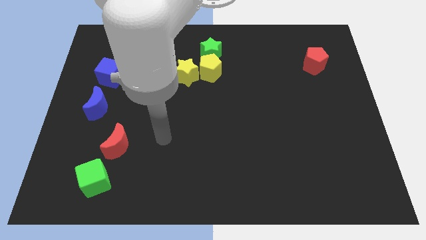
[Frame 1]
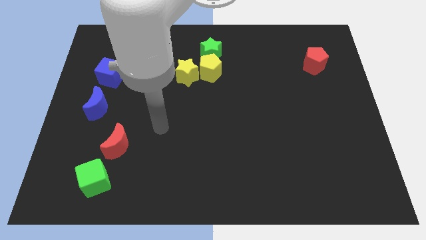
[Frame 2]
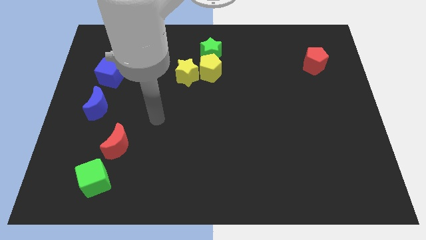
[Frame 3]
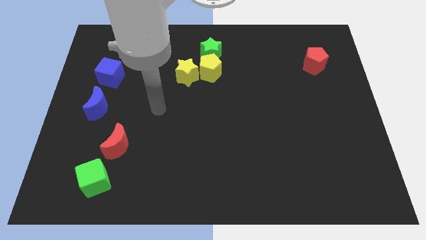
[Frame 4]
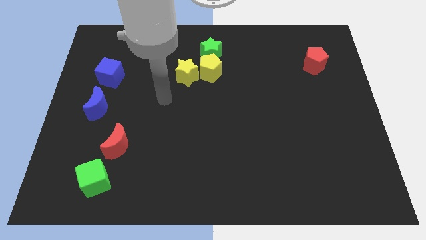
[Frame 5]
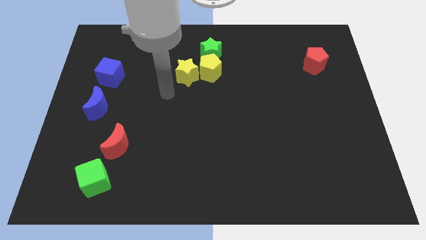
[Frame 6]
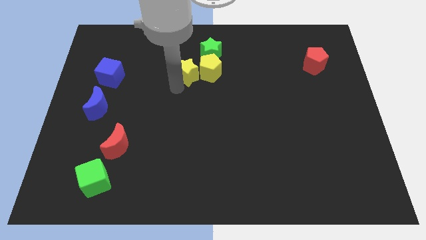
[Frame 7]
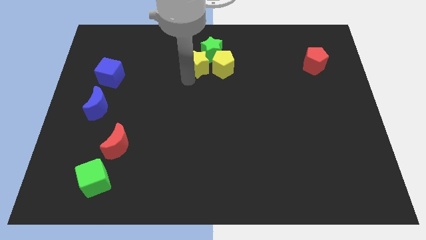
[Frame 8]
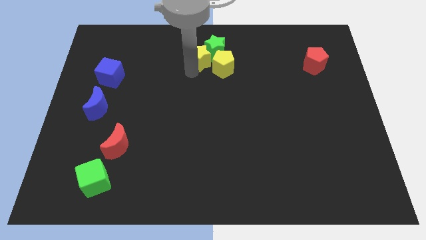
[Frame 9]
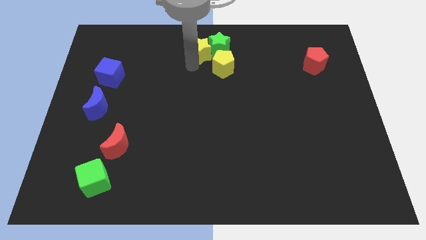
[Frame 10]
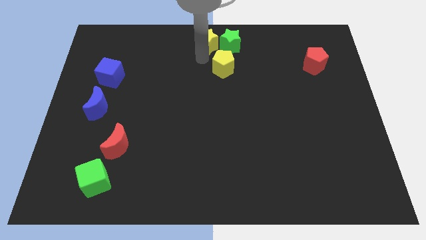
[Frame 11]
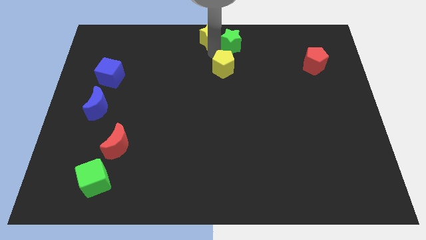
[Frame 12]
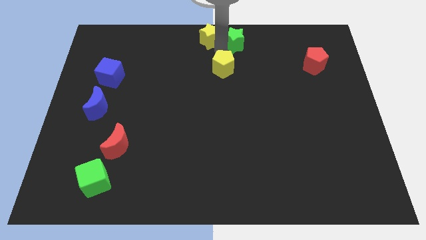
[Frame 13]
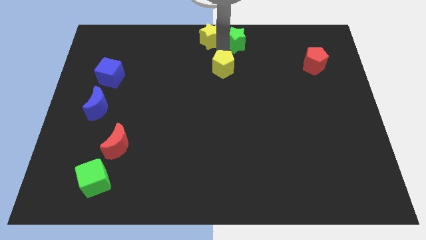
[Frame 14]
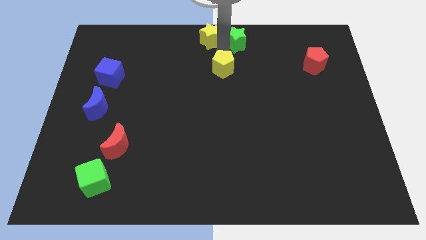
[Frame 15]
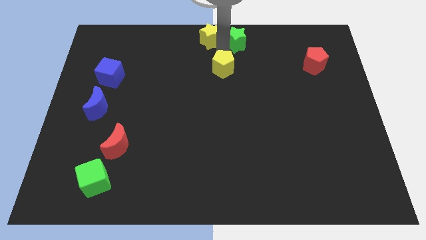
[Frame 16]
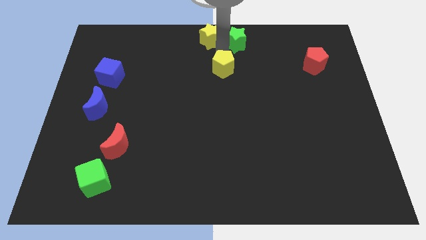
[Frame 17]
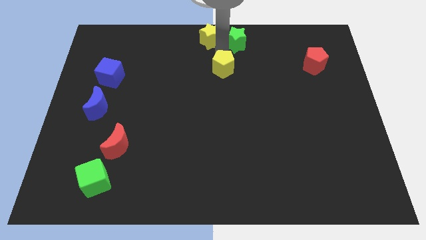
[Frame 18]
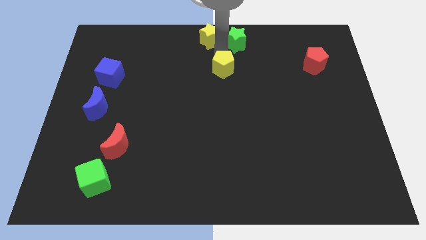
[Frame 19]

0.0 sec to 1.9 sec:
move the yellow pentagon away from the yellow star and green star

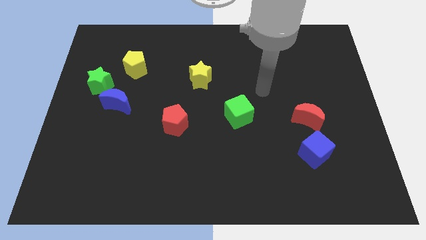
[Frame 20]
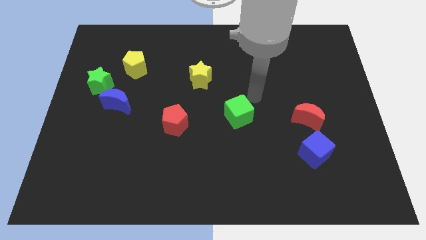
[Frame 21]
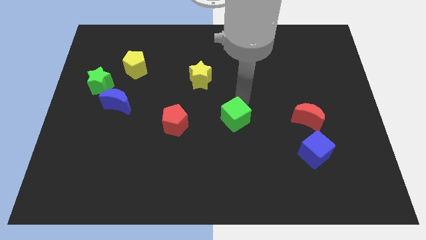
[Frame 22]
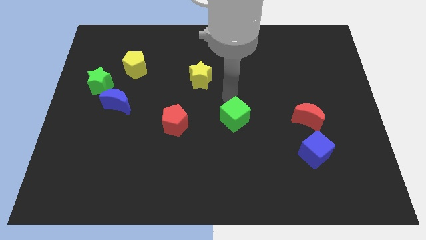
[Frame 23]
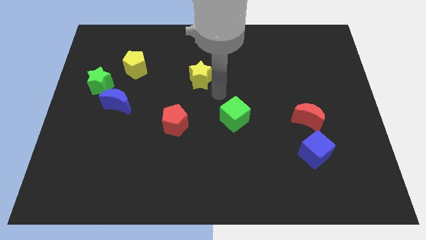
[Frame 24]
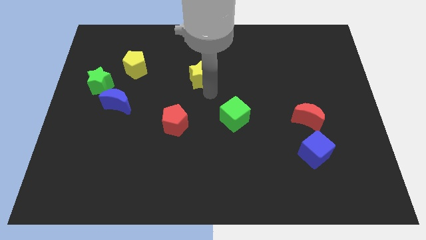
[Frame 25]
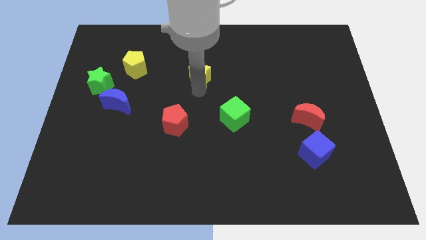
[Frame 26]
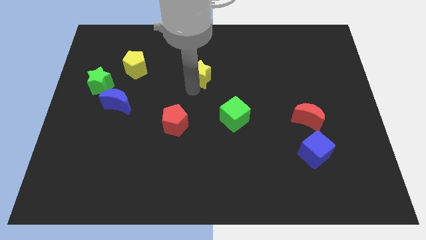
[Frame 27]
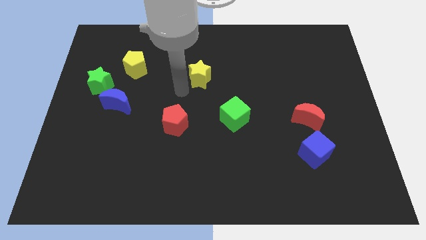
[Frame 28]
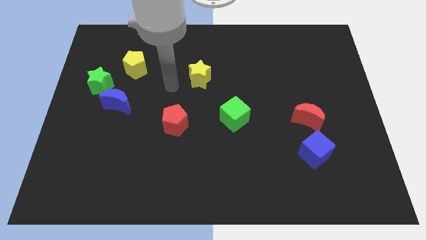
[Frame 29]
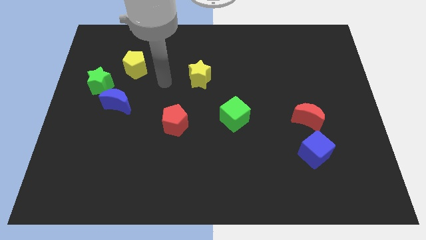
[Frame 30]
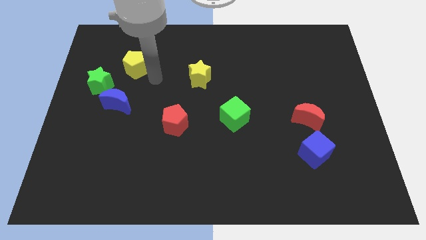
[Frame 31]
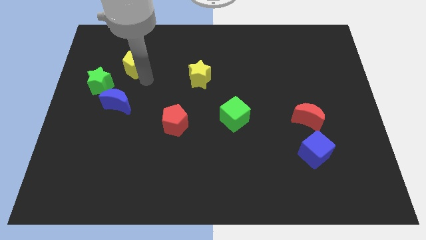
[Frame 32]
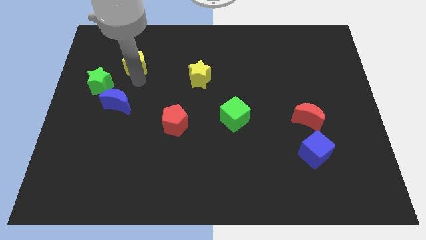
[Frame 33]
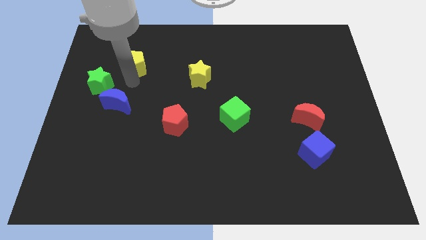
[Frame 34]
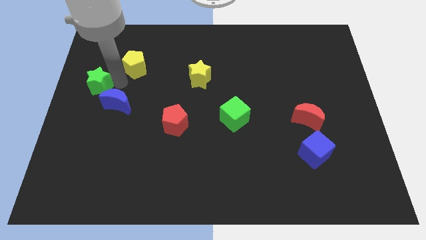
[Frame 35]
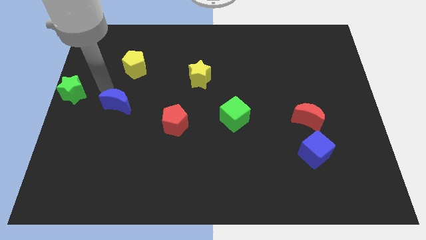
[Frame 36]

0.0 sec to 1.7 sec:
separate the blue moon from the green star

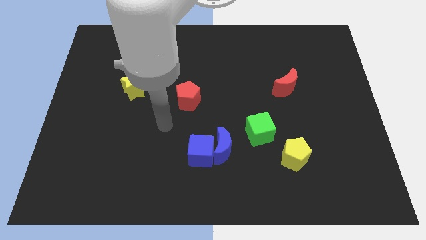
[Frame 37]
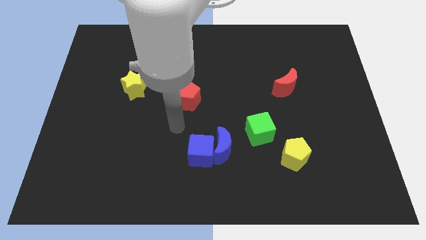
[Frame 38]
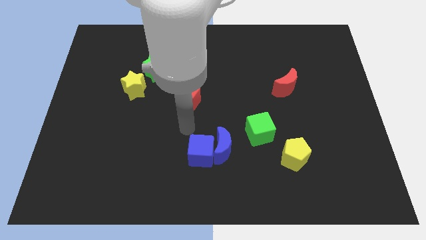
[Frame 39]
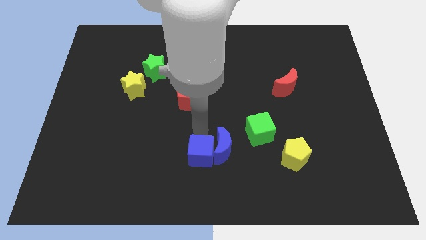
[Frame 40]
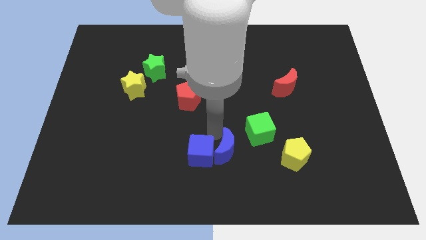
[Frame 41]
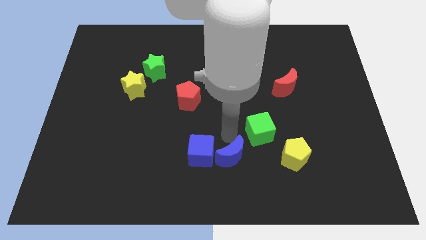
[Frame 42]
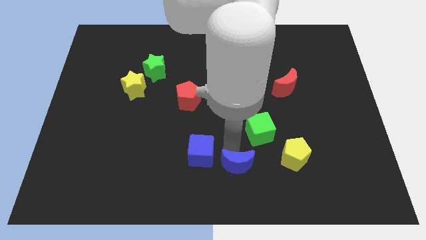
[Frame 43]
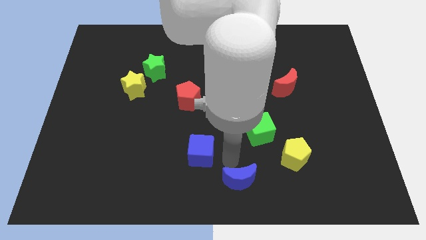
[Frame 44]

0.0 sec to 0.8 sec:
pull the blue cube apart from the blue moon

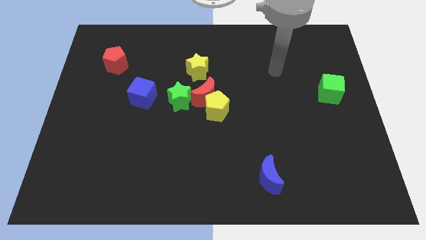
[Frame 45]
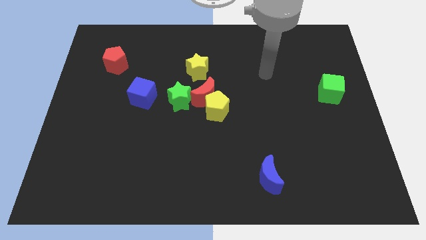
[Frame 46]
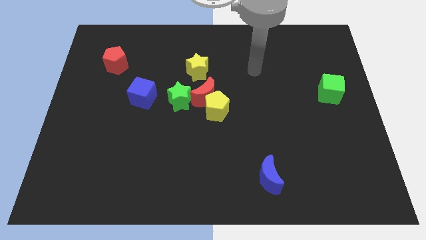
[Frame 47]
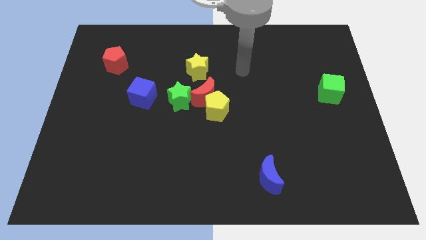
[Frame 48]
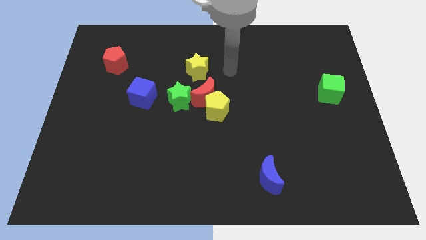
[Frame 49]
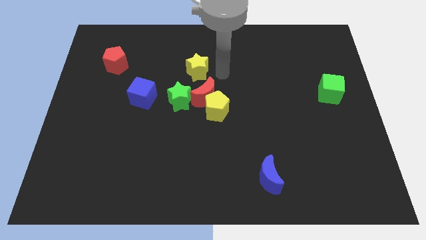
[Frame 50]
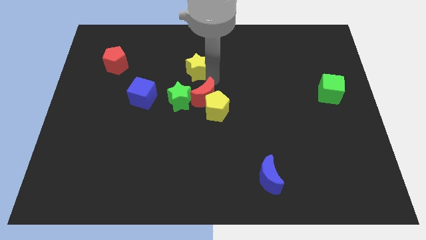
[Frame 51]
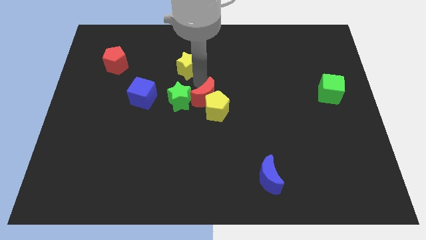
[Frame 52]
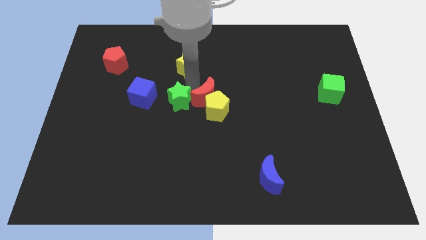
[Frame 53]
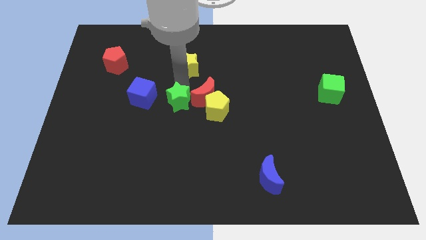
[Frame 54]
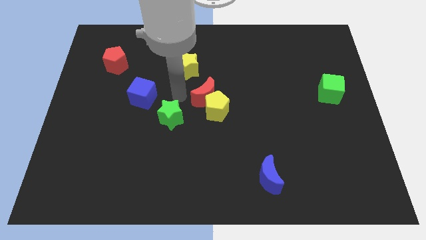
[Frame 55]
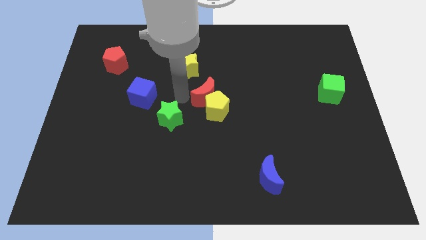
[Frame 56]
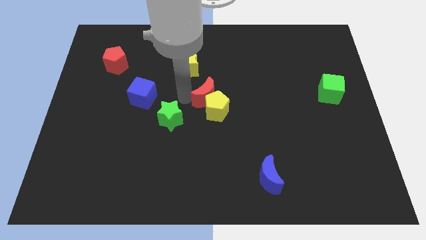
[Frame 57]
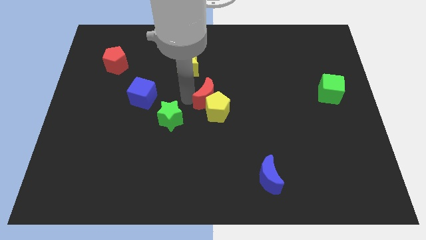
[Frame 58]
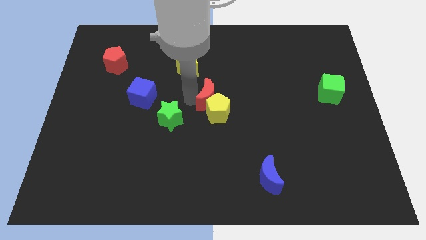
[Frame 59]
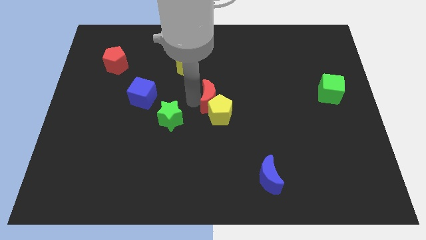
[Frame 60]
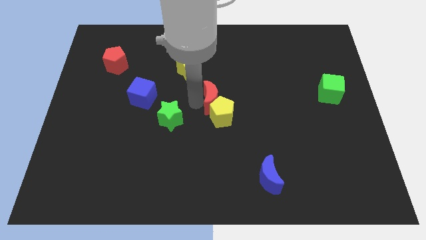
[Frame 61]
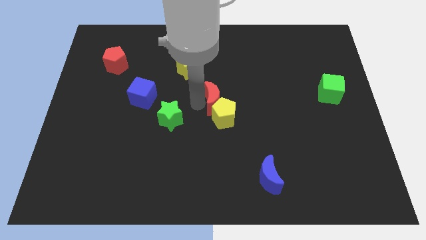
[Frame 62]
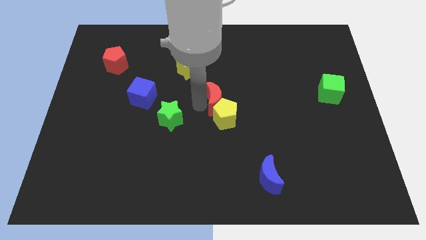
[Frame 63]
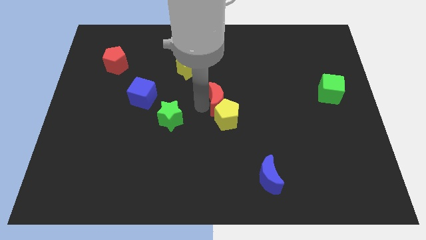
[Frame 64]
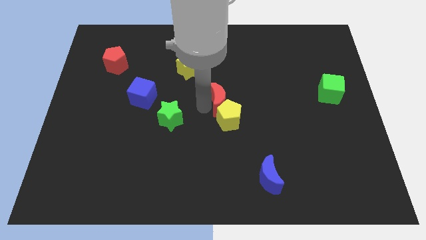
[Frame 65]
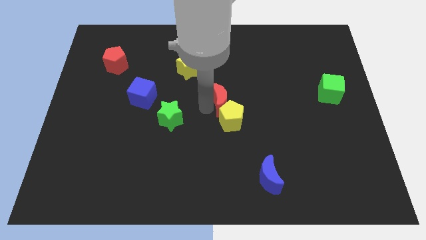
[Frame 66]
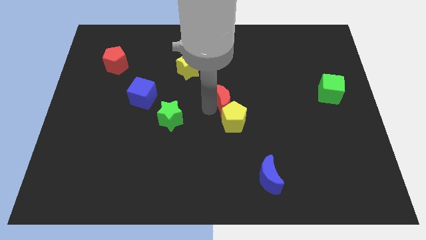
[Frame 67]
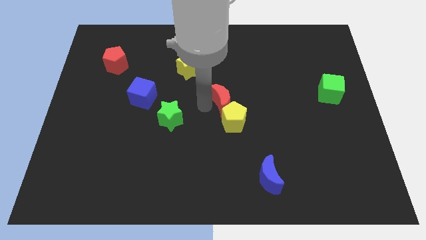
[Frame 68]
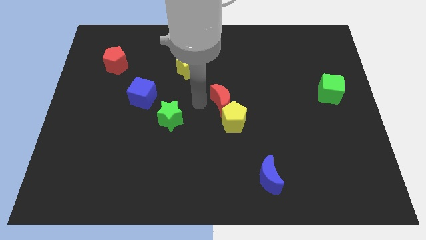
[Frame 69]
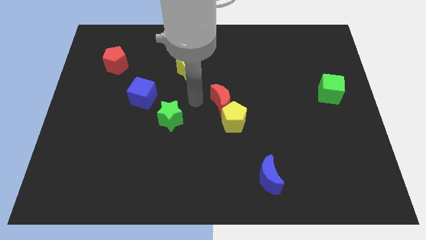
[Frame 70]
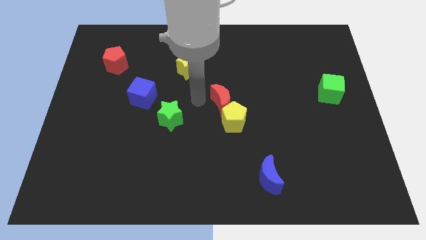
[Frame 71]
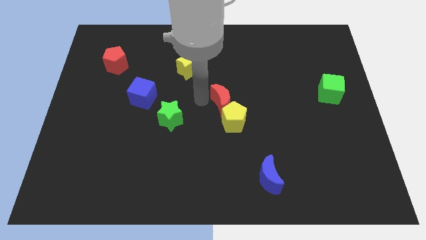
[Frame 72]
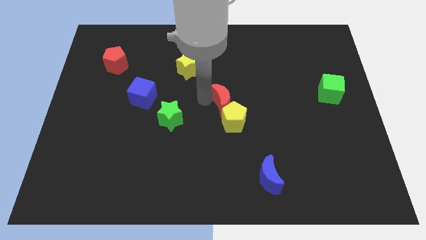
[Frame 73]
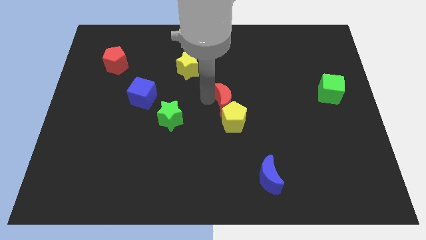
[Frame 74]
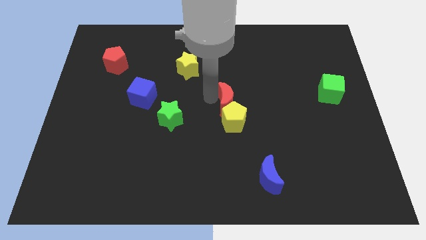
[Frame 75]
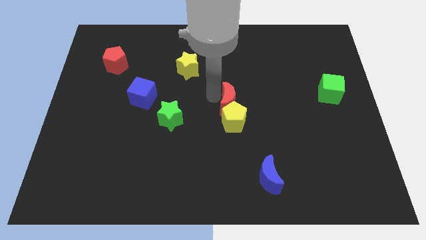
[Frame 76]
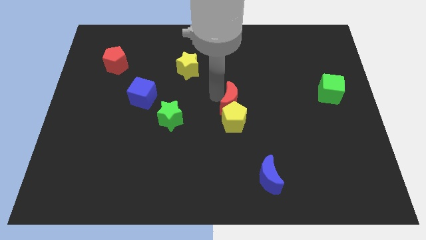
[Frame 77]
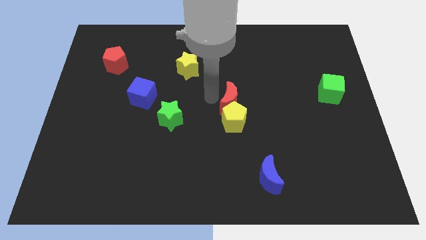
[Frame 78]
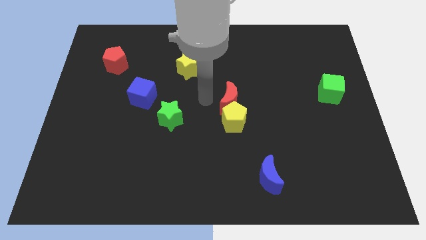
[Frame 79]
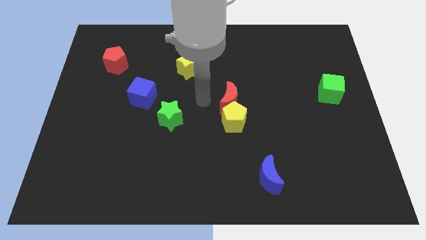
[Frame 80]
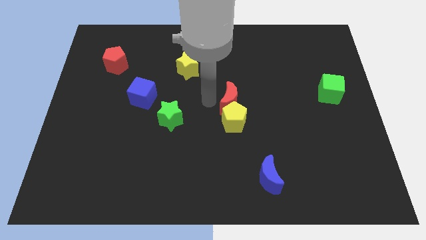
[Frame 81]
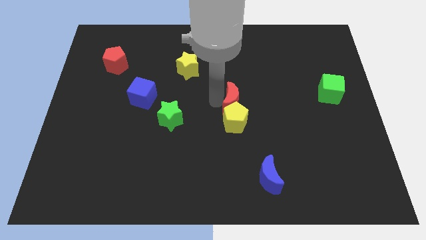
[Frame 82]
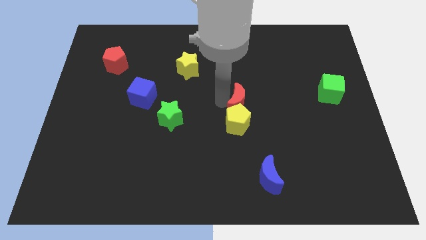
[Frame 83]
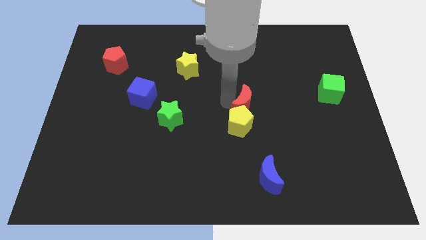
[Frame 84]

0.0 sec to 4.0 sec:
separate the red moon from the group of blocks

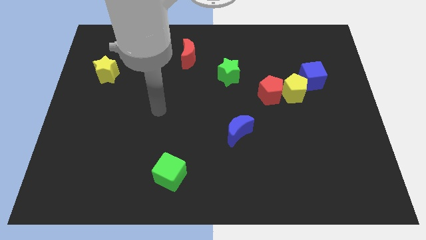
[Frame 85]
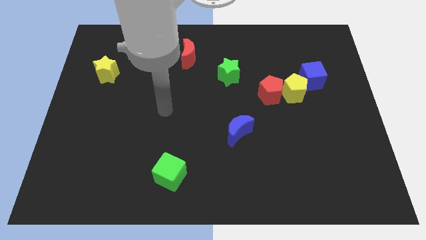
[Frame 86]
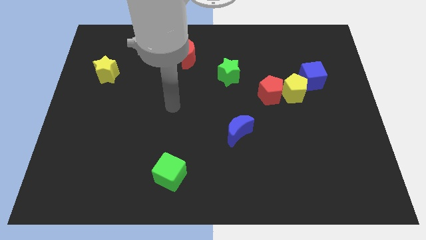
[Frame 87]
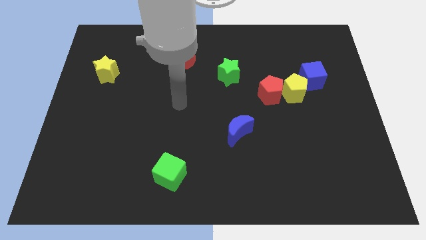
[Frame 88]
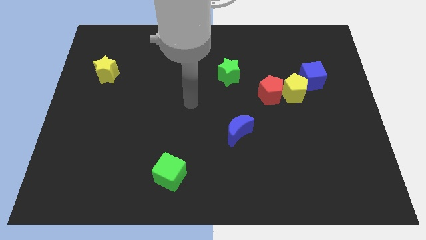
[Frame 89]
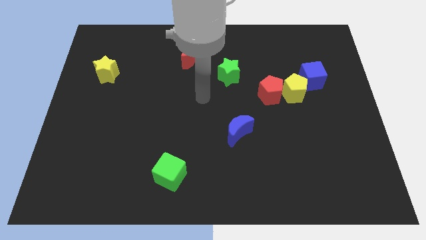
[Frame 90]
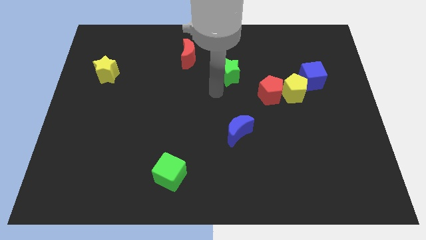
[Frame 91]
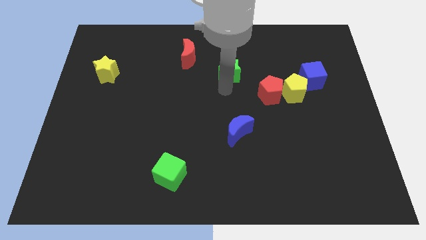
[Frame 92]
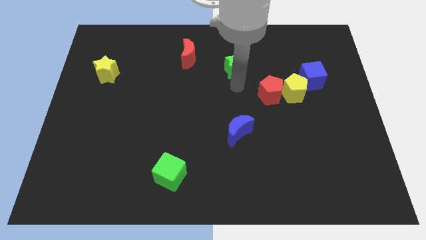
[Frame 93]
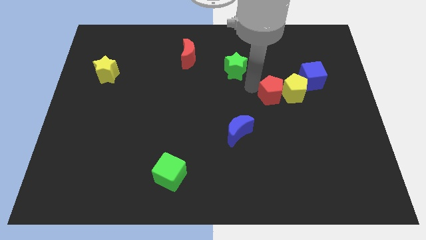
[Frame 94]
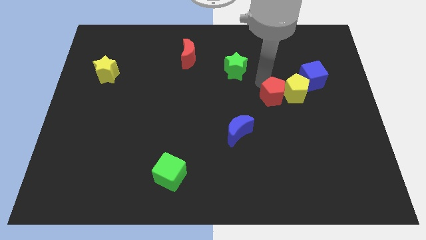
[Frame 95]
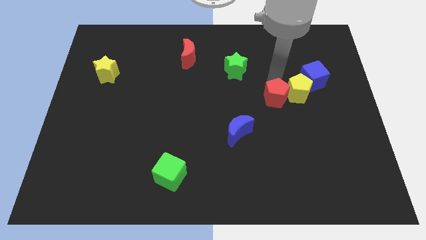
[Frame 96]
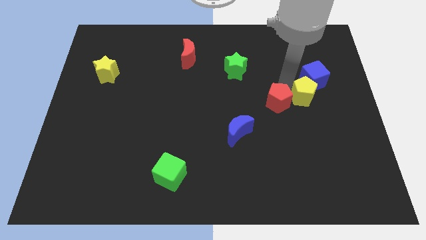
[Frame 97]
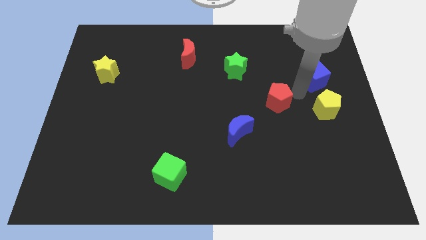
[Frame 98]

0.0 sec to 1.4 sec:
pull the red pentagon apart from the yellow pentagon
